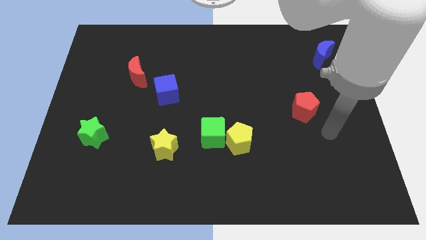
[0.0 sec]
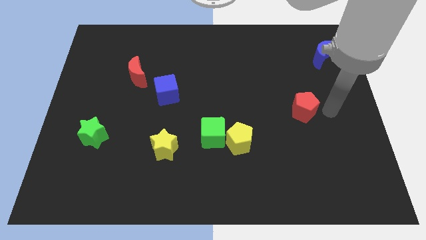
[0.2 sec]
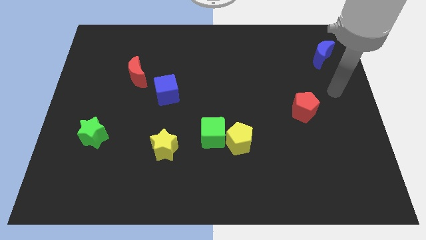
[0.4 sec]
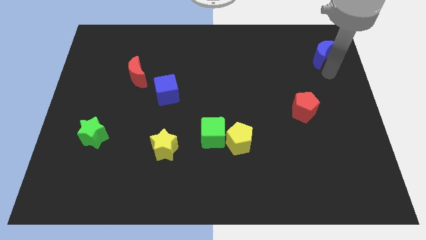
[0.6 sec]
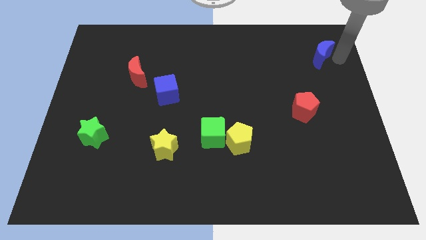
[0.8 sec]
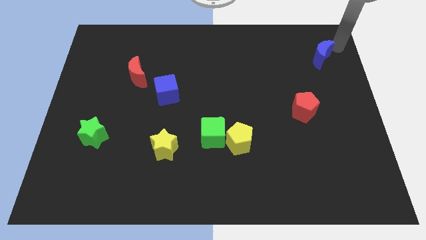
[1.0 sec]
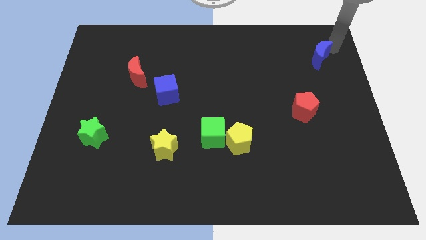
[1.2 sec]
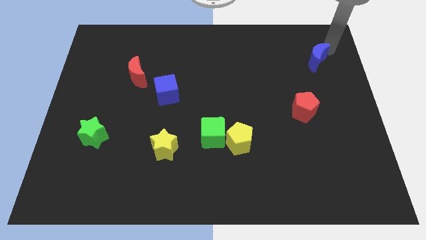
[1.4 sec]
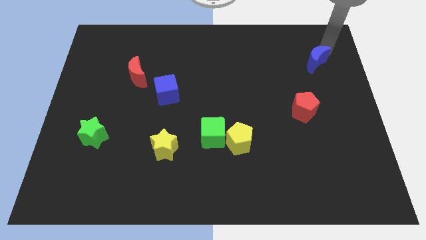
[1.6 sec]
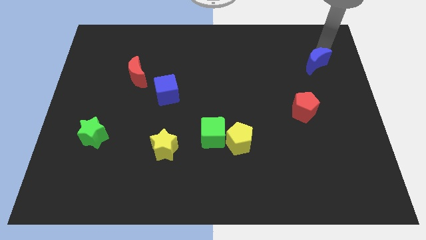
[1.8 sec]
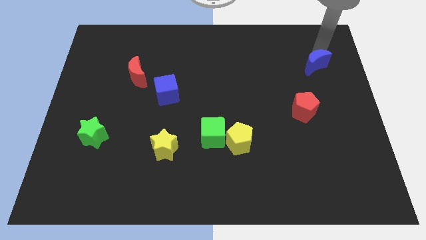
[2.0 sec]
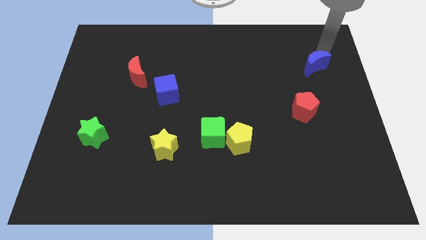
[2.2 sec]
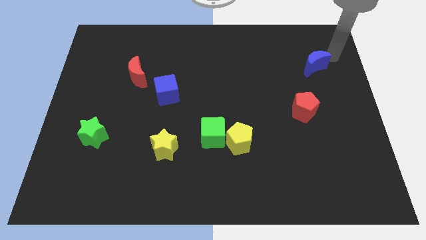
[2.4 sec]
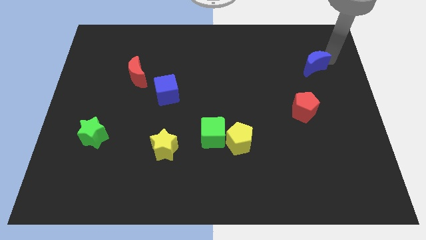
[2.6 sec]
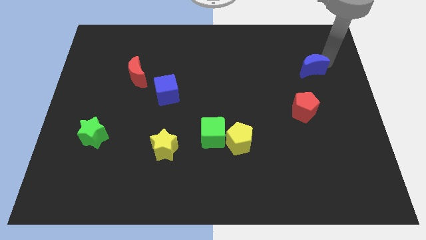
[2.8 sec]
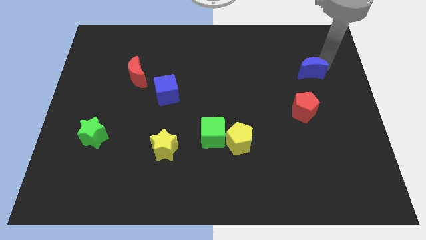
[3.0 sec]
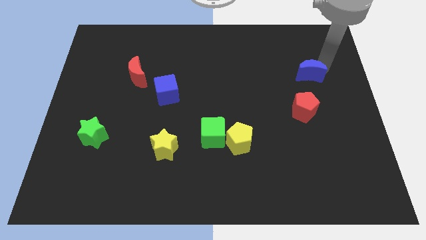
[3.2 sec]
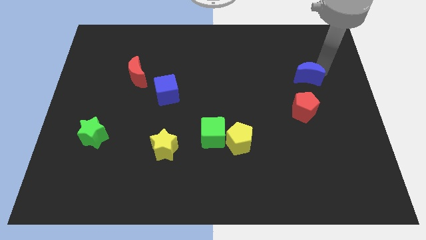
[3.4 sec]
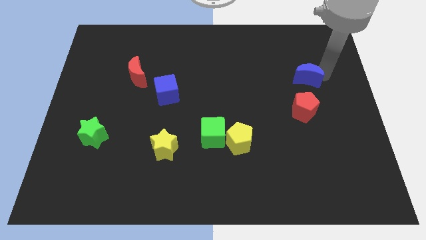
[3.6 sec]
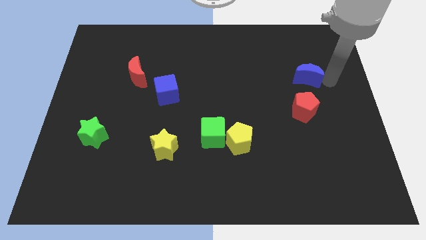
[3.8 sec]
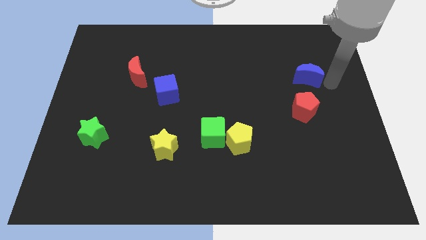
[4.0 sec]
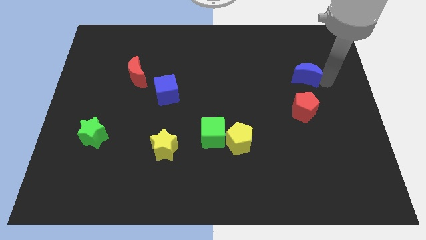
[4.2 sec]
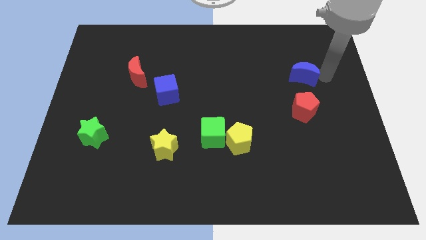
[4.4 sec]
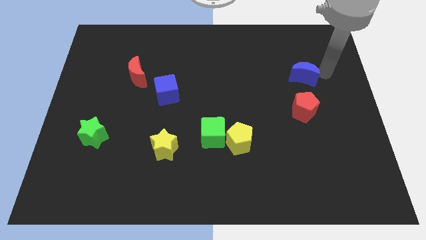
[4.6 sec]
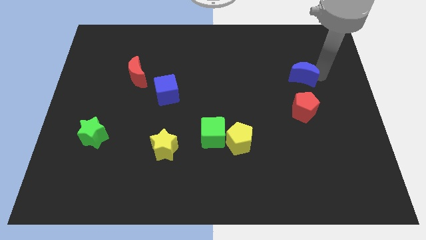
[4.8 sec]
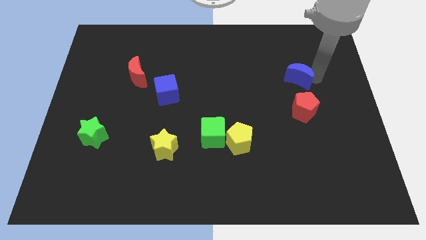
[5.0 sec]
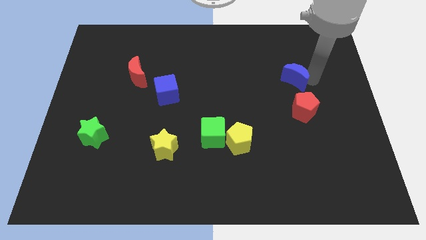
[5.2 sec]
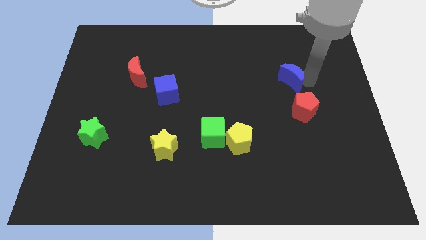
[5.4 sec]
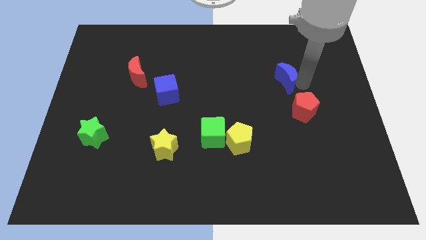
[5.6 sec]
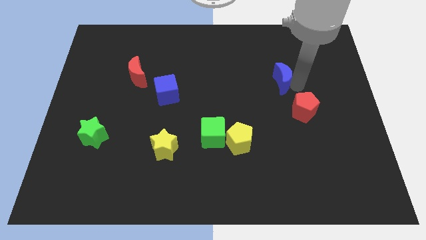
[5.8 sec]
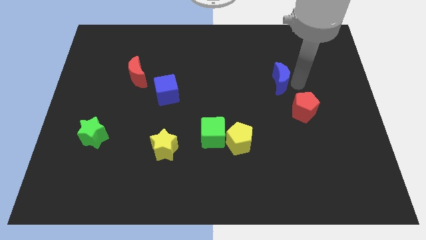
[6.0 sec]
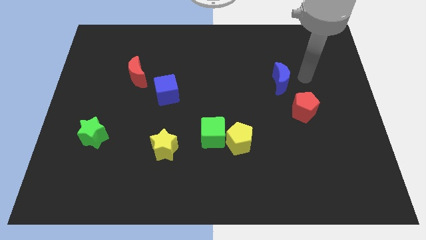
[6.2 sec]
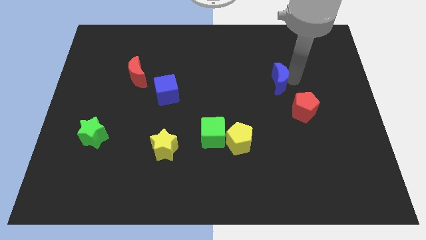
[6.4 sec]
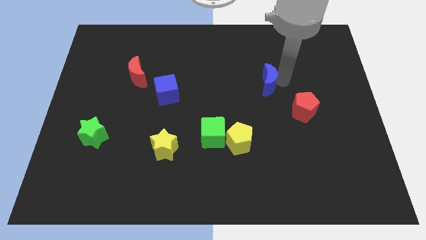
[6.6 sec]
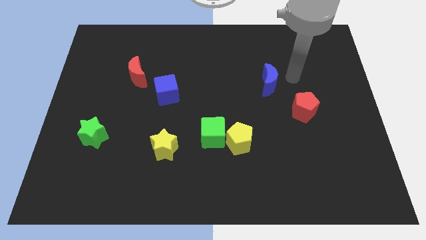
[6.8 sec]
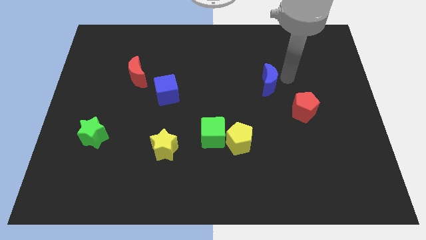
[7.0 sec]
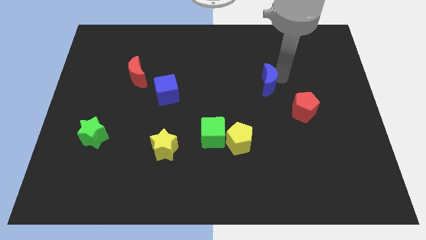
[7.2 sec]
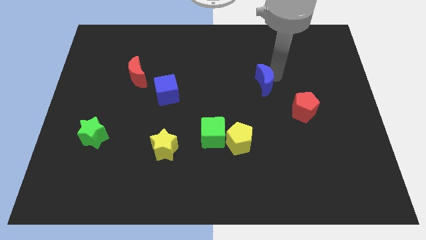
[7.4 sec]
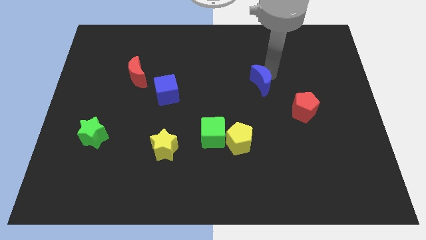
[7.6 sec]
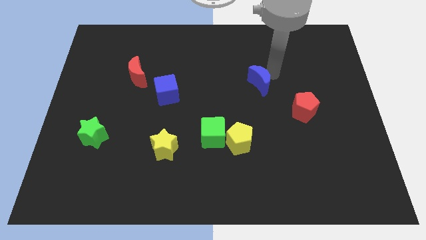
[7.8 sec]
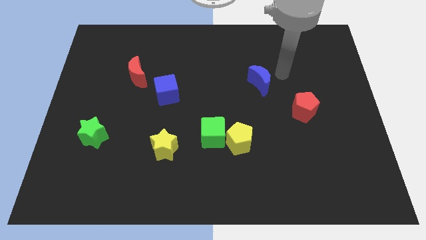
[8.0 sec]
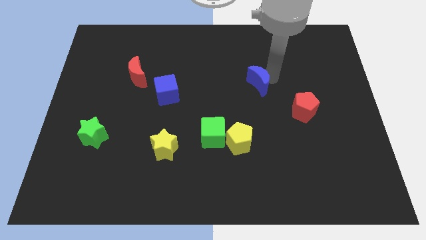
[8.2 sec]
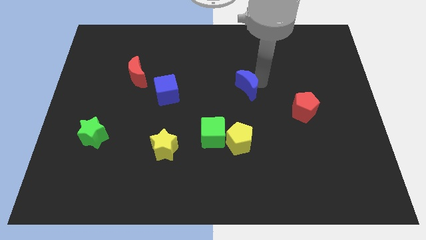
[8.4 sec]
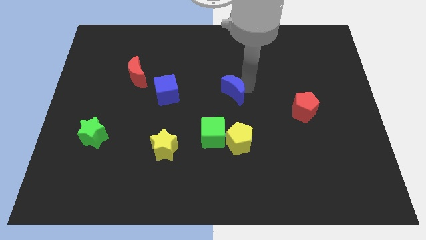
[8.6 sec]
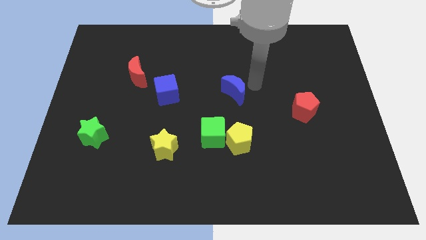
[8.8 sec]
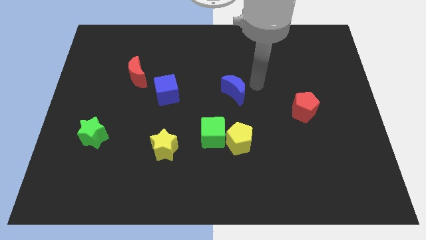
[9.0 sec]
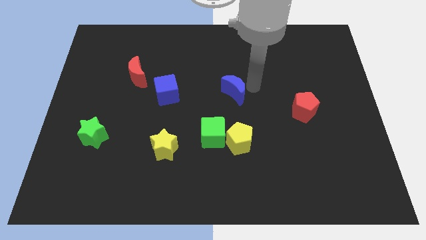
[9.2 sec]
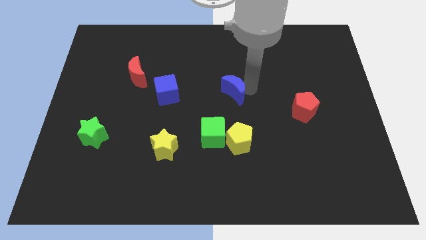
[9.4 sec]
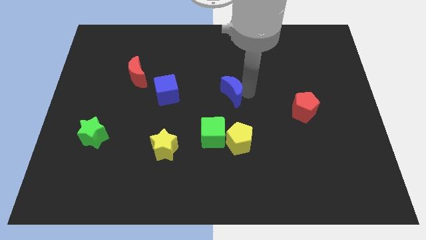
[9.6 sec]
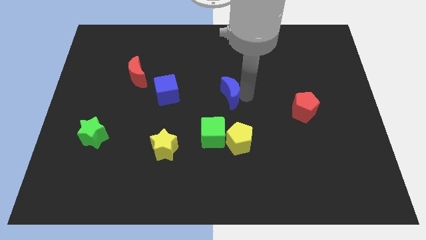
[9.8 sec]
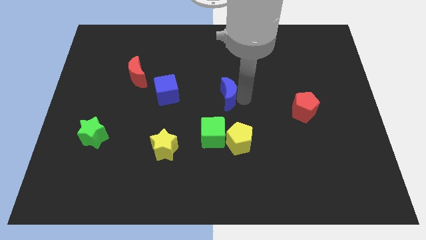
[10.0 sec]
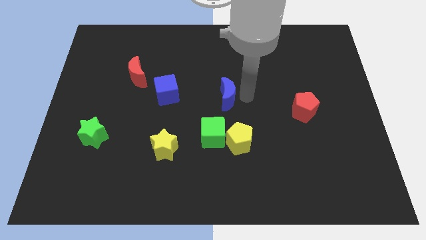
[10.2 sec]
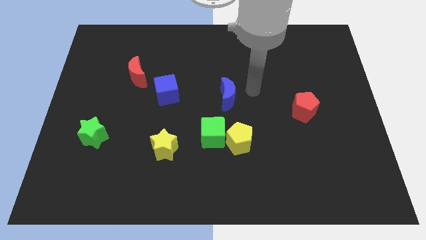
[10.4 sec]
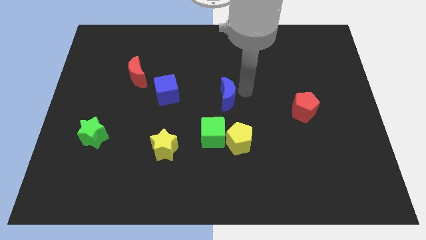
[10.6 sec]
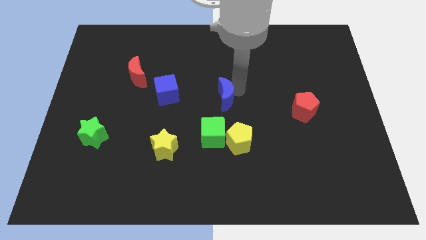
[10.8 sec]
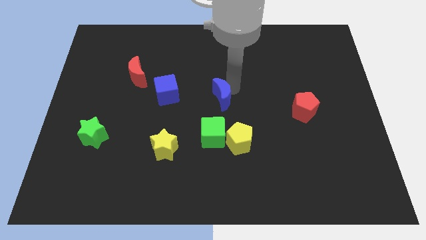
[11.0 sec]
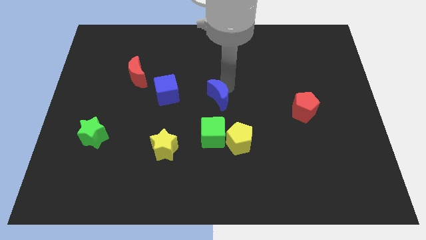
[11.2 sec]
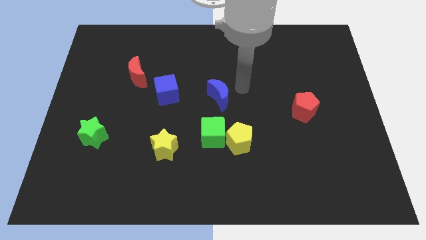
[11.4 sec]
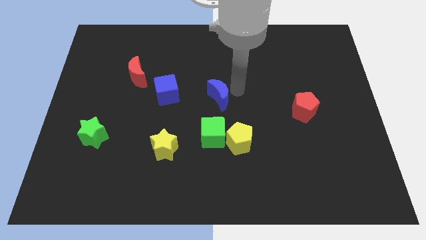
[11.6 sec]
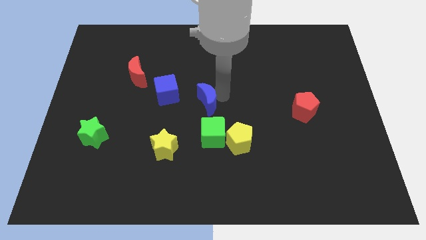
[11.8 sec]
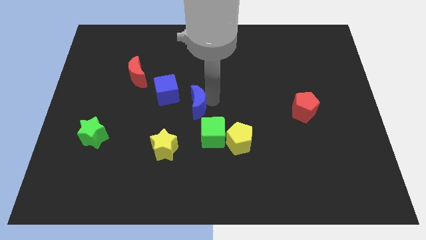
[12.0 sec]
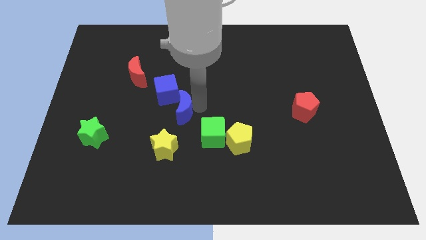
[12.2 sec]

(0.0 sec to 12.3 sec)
push the blue moon above the yellow star

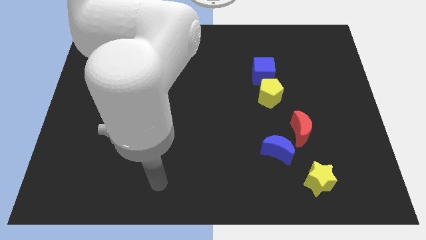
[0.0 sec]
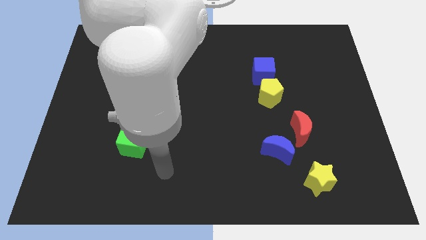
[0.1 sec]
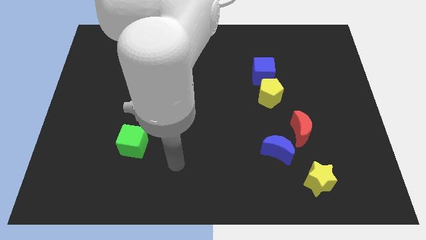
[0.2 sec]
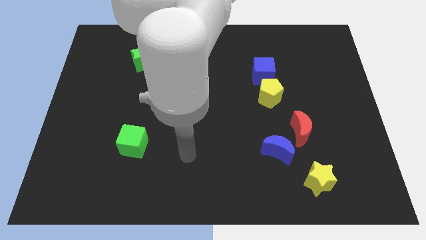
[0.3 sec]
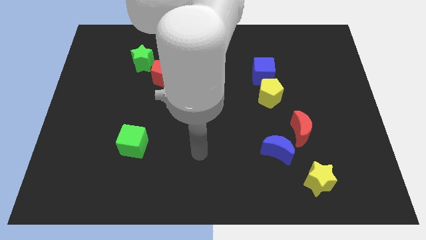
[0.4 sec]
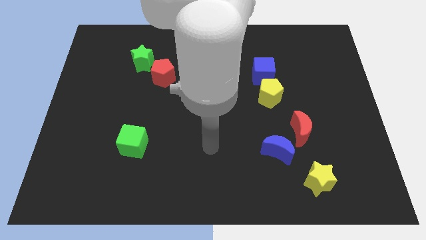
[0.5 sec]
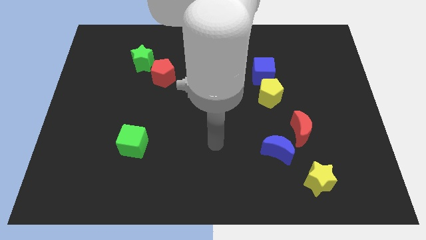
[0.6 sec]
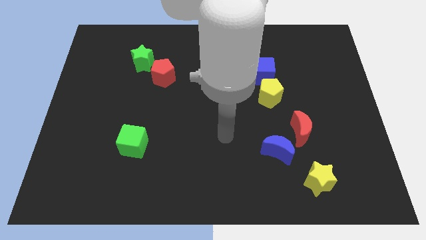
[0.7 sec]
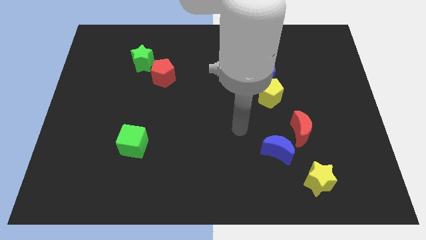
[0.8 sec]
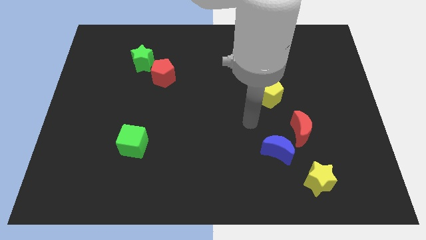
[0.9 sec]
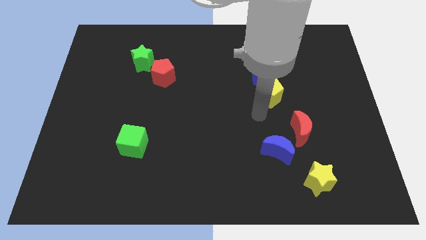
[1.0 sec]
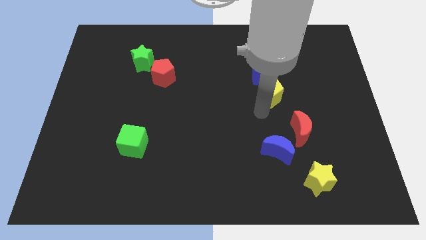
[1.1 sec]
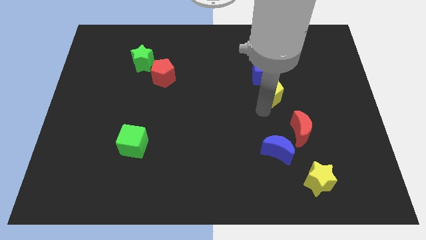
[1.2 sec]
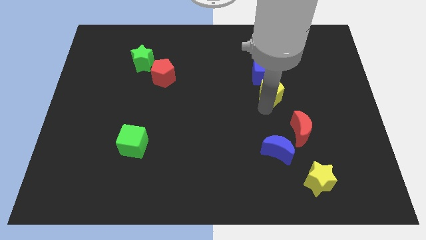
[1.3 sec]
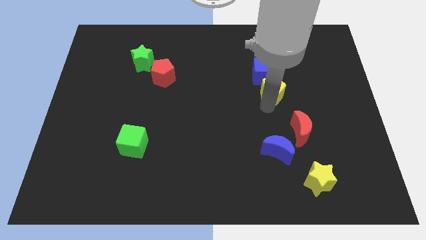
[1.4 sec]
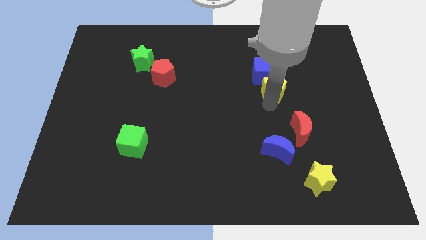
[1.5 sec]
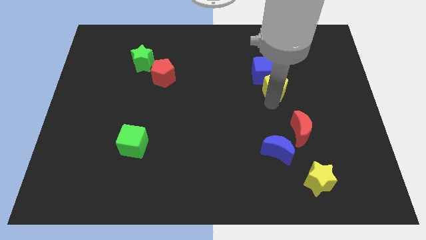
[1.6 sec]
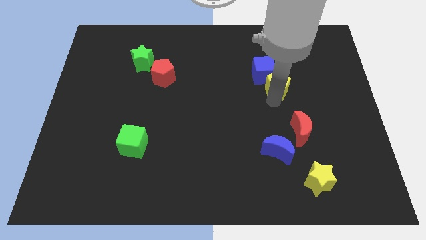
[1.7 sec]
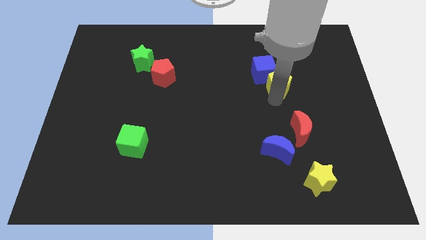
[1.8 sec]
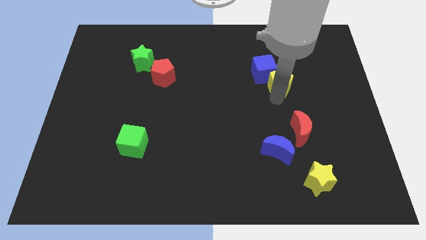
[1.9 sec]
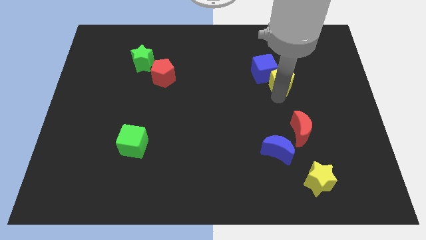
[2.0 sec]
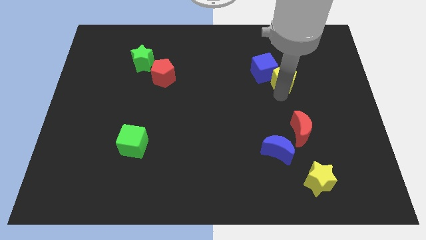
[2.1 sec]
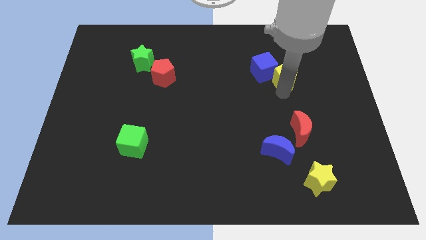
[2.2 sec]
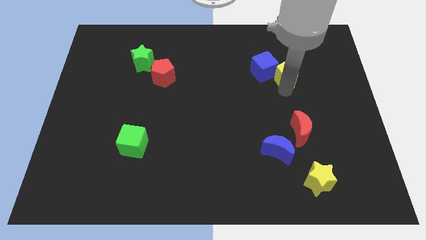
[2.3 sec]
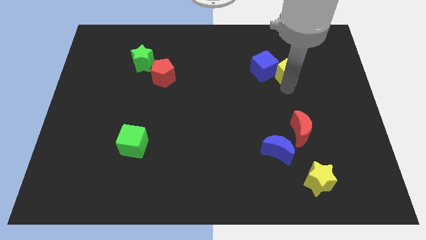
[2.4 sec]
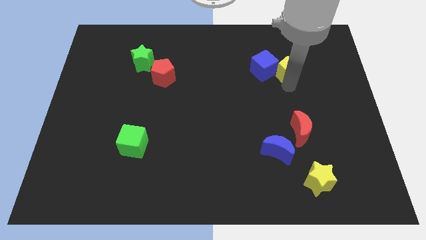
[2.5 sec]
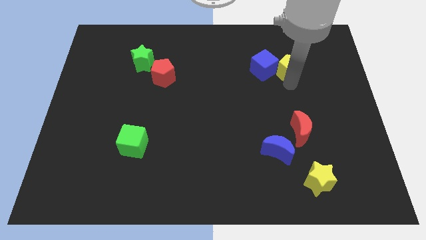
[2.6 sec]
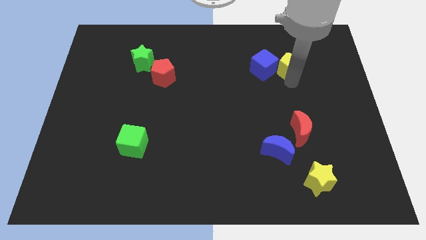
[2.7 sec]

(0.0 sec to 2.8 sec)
slide the yellow pentagon to the top right side of the blue cube
